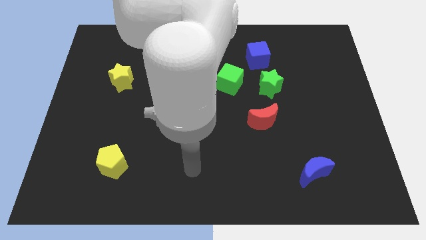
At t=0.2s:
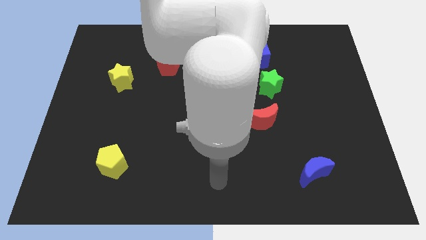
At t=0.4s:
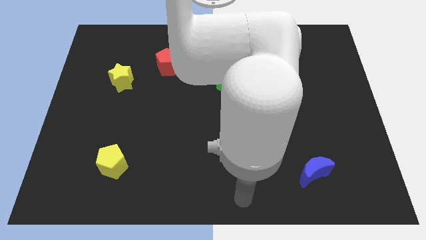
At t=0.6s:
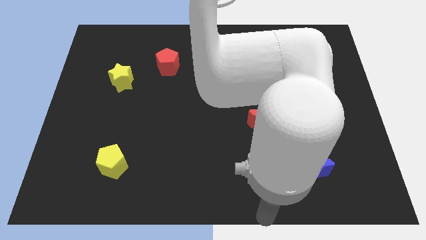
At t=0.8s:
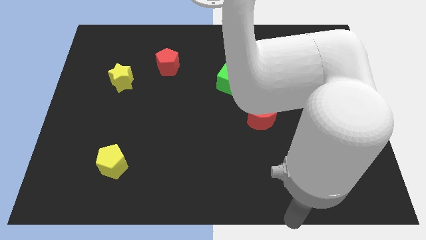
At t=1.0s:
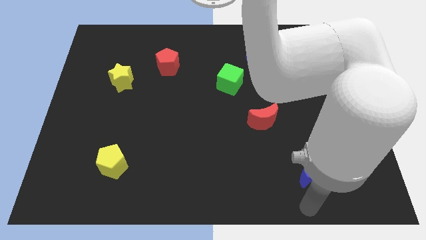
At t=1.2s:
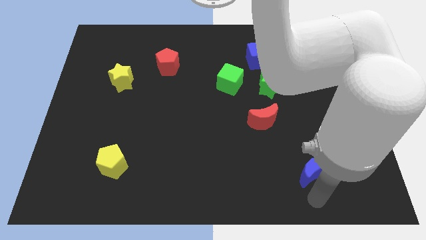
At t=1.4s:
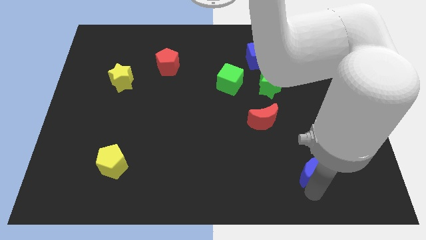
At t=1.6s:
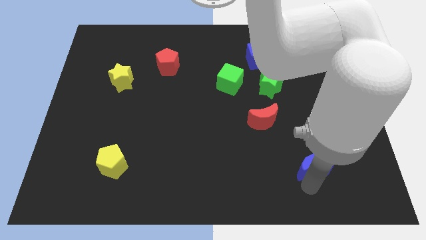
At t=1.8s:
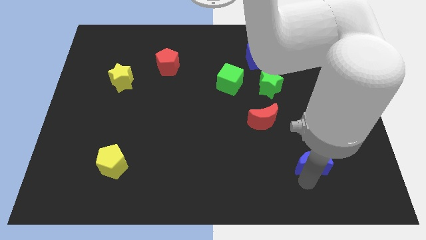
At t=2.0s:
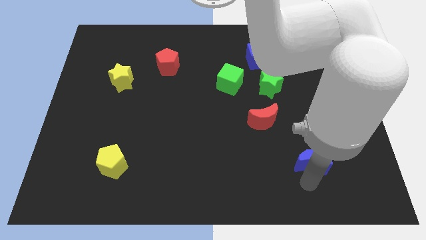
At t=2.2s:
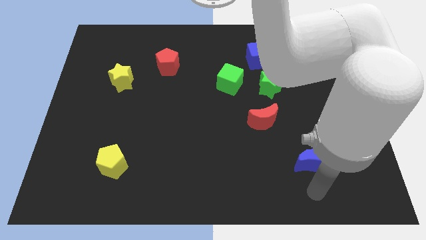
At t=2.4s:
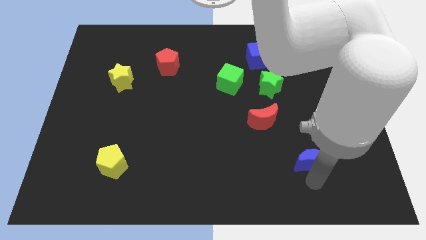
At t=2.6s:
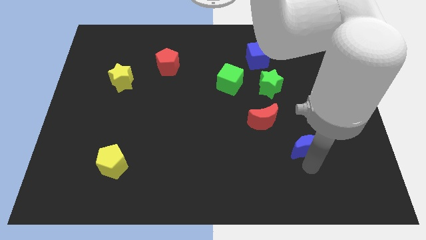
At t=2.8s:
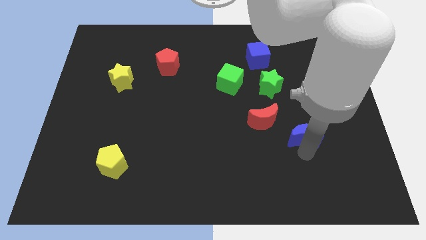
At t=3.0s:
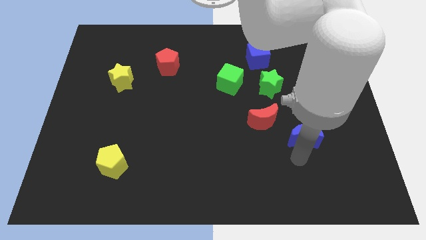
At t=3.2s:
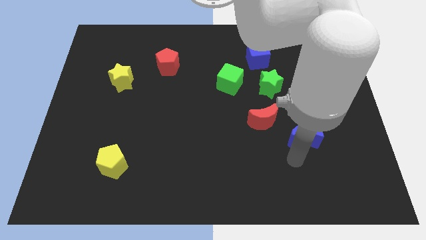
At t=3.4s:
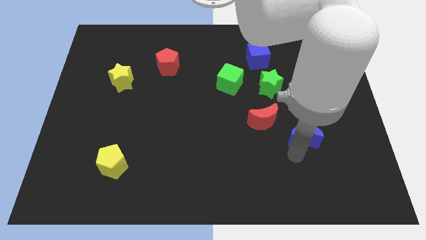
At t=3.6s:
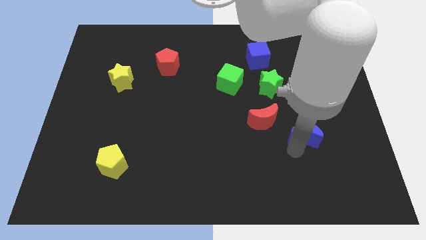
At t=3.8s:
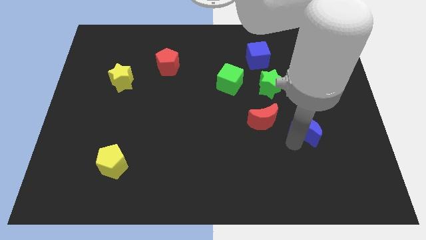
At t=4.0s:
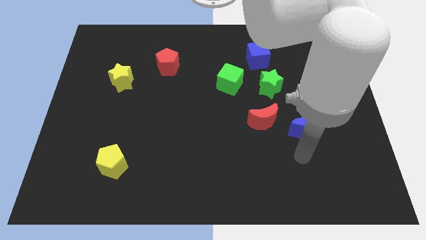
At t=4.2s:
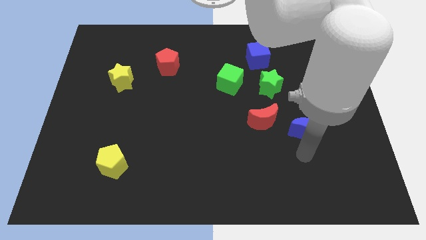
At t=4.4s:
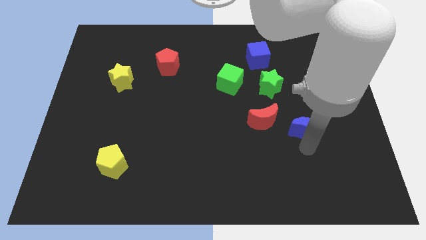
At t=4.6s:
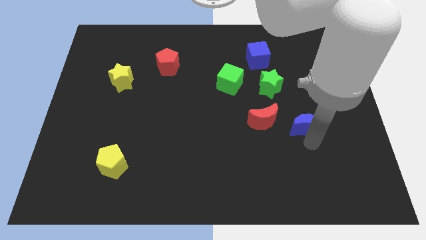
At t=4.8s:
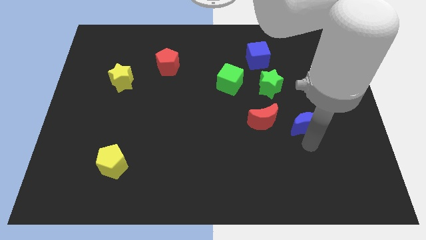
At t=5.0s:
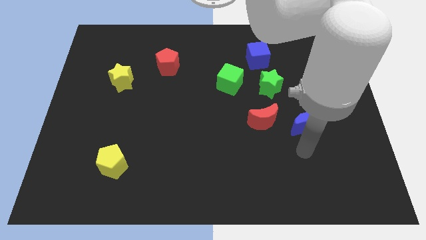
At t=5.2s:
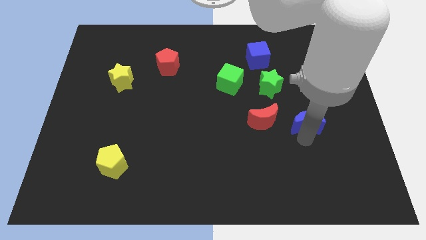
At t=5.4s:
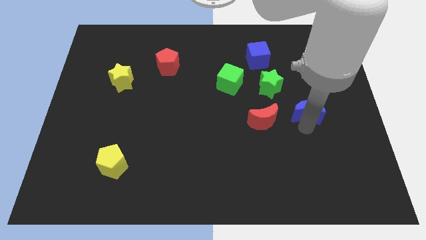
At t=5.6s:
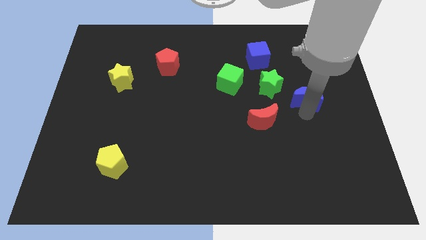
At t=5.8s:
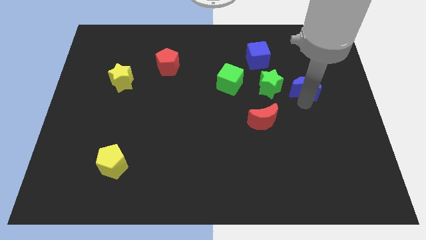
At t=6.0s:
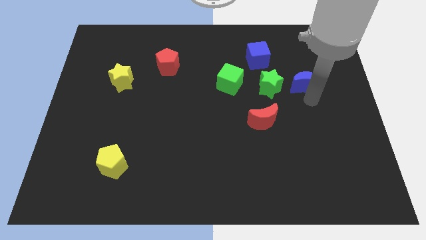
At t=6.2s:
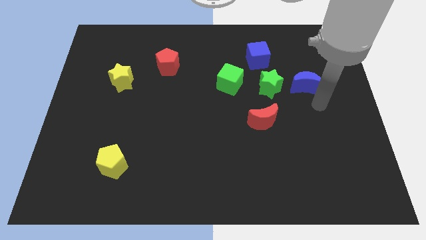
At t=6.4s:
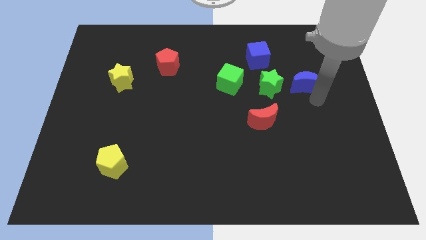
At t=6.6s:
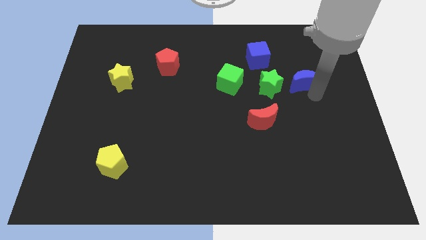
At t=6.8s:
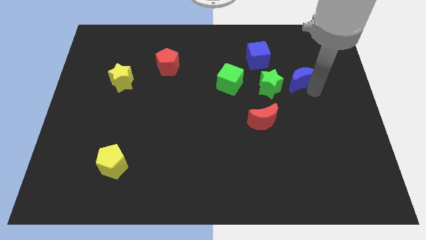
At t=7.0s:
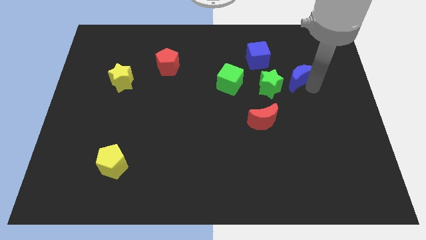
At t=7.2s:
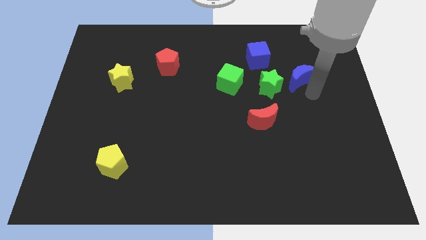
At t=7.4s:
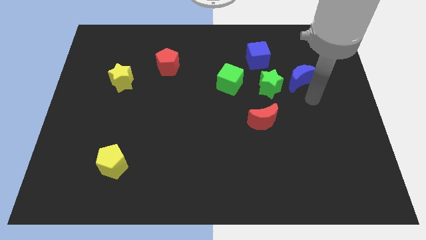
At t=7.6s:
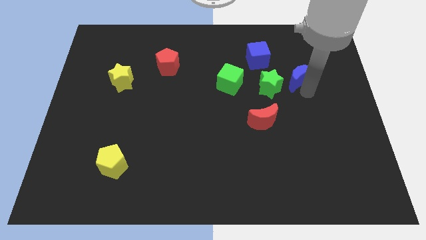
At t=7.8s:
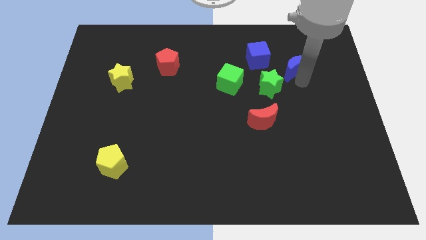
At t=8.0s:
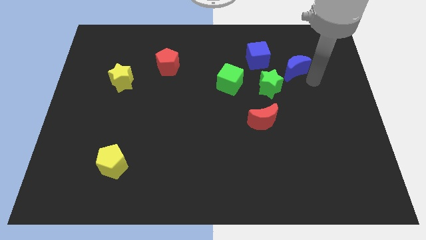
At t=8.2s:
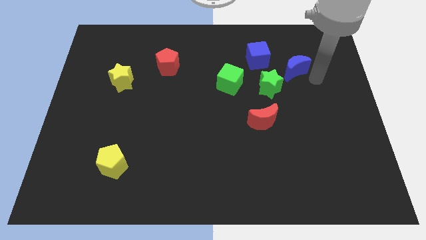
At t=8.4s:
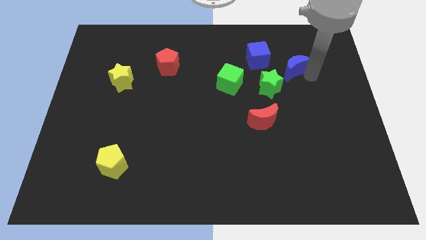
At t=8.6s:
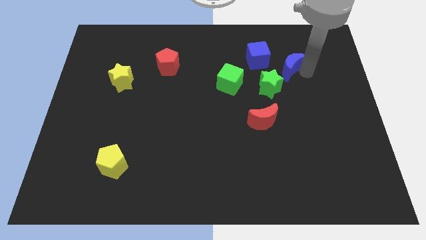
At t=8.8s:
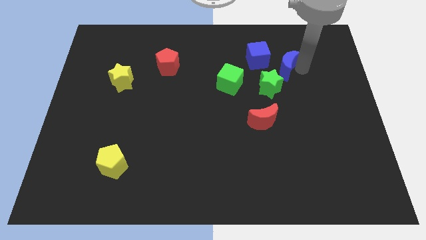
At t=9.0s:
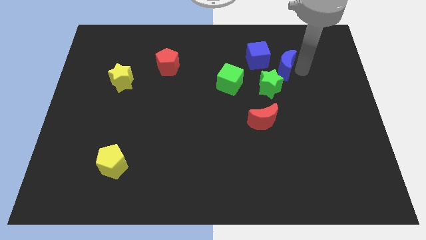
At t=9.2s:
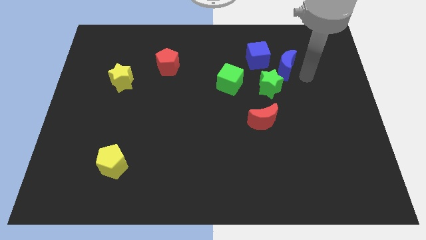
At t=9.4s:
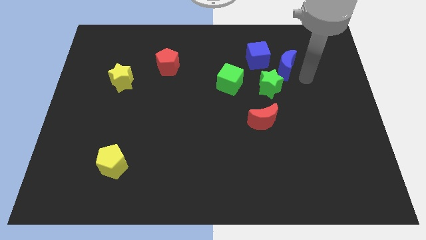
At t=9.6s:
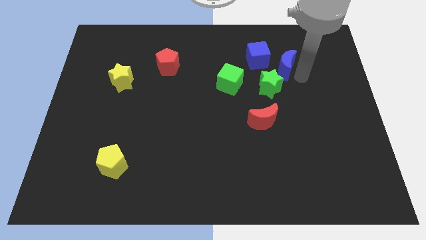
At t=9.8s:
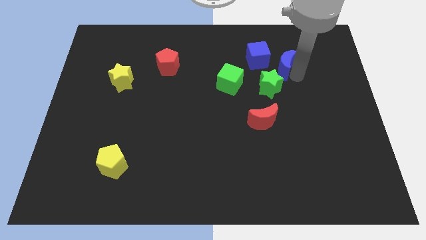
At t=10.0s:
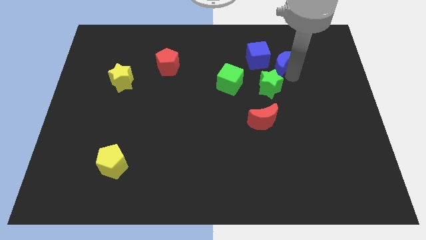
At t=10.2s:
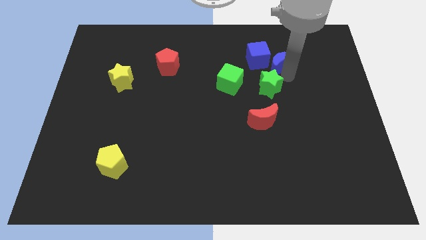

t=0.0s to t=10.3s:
move the blue moon close to the blue cube

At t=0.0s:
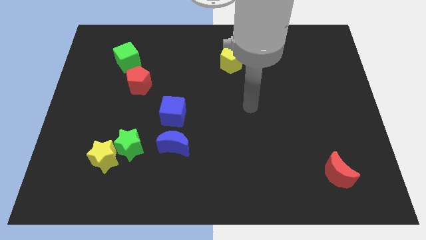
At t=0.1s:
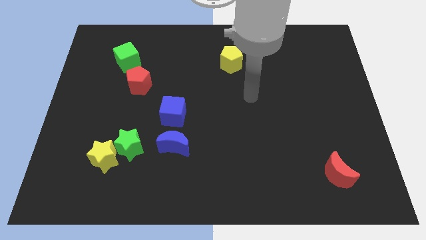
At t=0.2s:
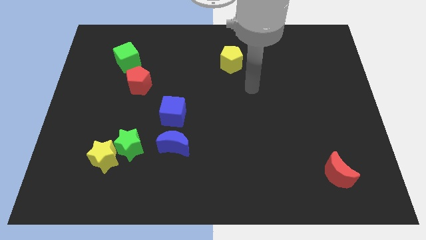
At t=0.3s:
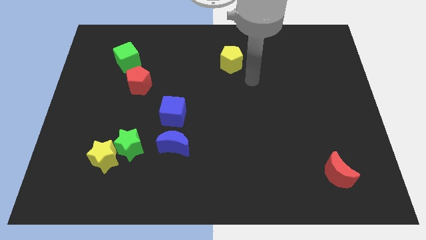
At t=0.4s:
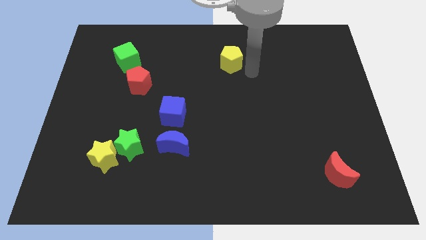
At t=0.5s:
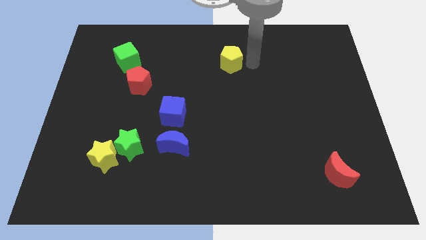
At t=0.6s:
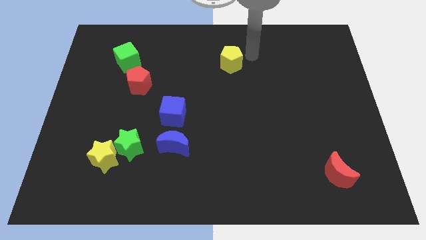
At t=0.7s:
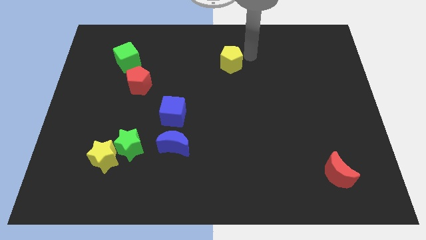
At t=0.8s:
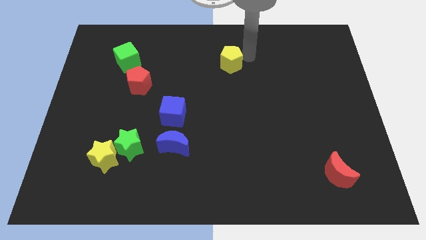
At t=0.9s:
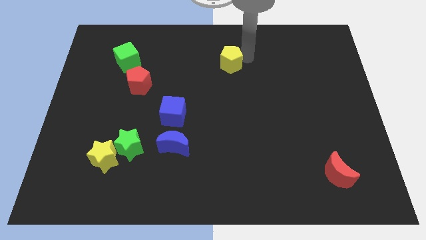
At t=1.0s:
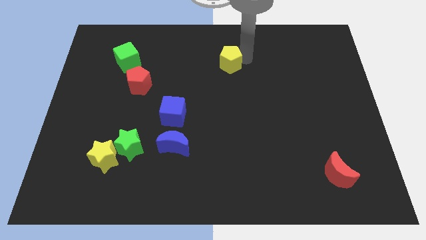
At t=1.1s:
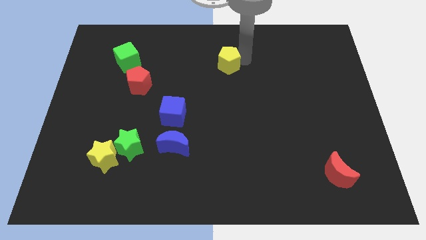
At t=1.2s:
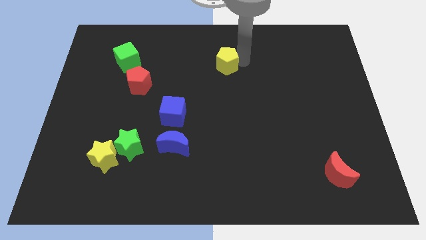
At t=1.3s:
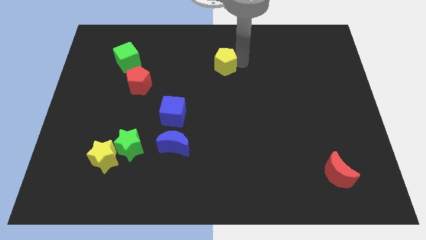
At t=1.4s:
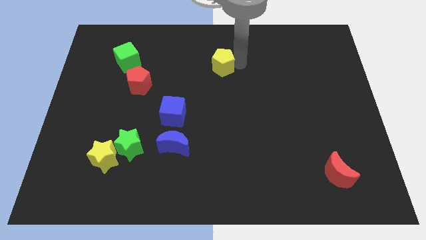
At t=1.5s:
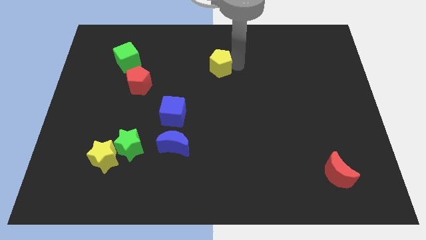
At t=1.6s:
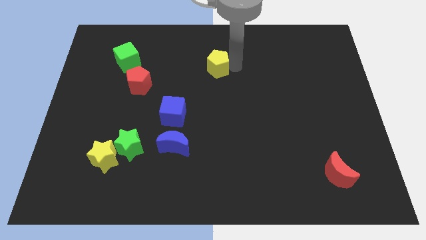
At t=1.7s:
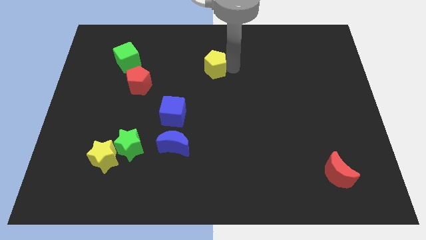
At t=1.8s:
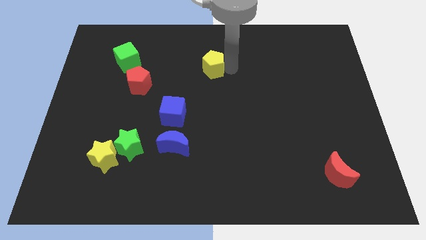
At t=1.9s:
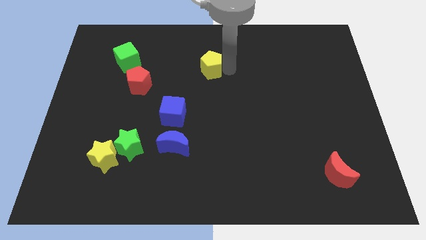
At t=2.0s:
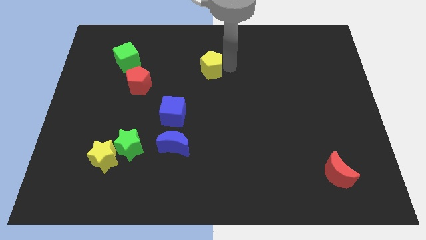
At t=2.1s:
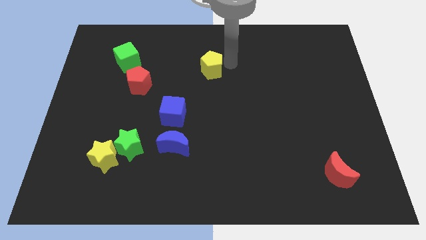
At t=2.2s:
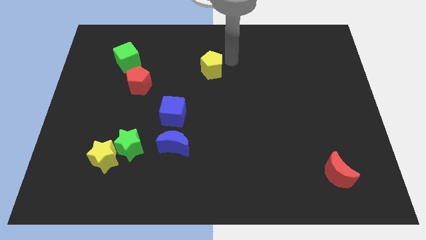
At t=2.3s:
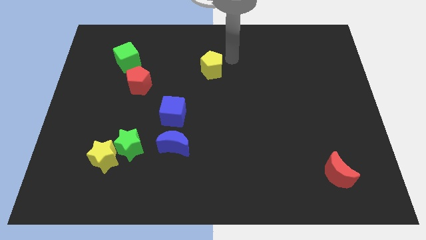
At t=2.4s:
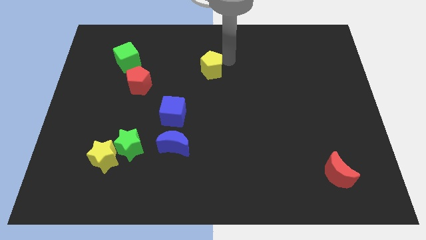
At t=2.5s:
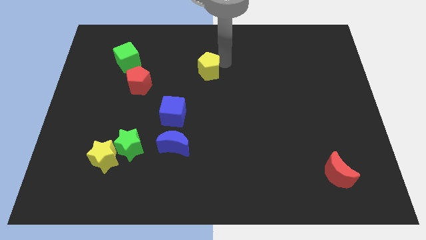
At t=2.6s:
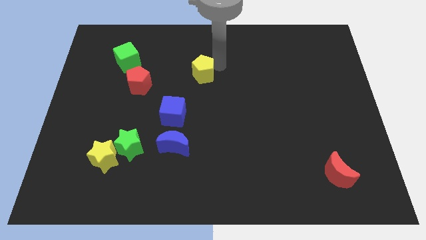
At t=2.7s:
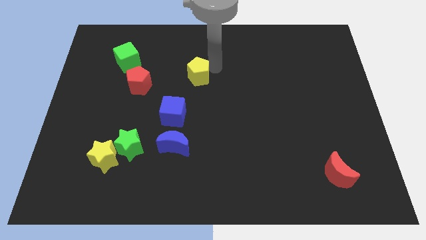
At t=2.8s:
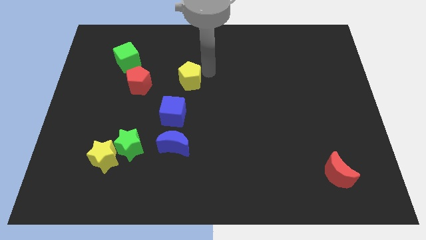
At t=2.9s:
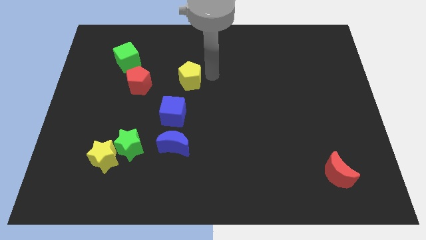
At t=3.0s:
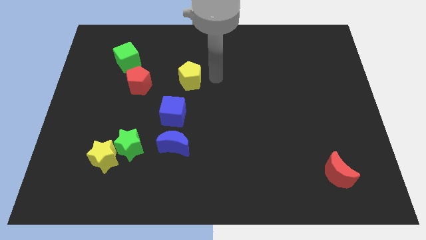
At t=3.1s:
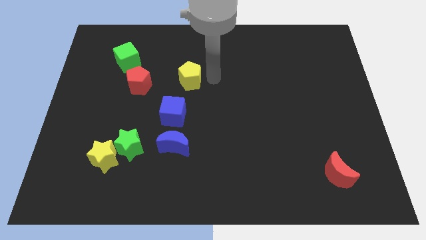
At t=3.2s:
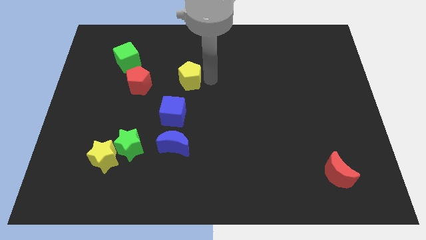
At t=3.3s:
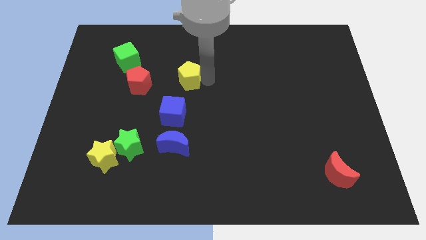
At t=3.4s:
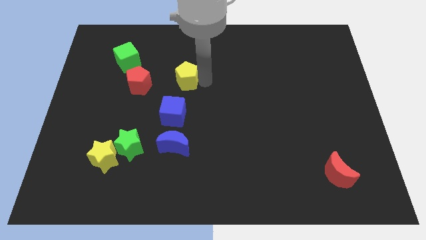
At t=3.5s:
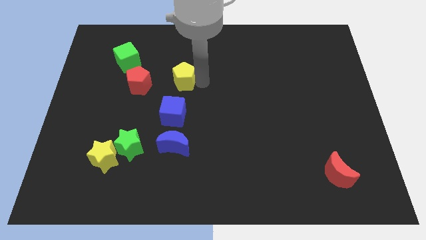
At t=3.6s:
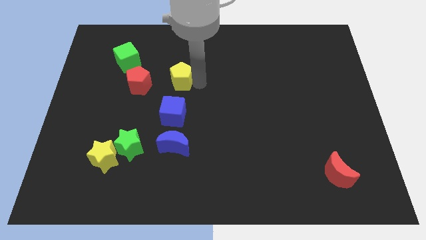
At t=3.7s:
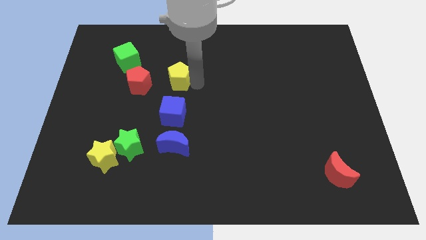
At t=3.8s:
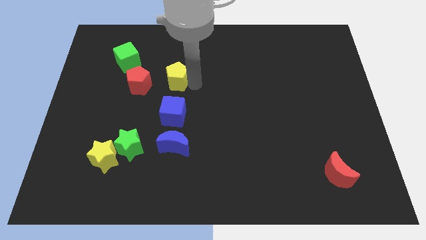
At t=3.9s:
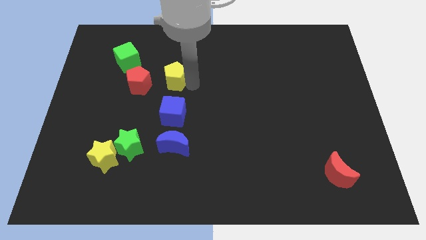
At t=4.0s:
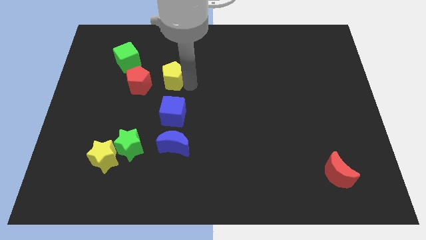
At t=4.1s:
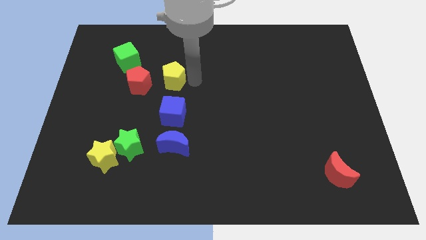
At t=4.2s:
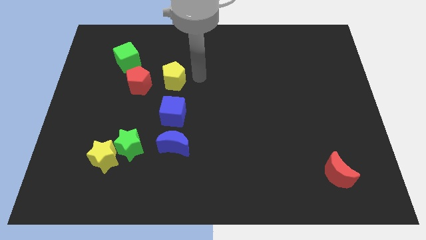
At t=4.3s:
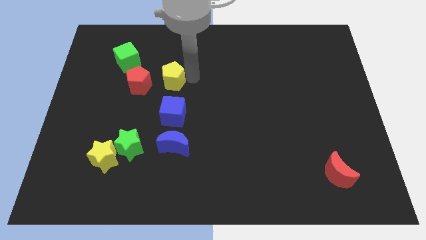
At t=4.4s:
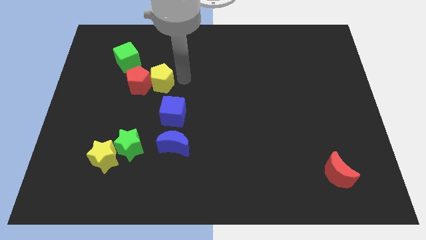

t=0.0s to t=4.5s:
put the yellow pentagon towards the red pentagon
